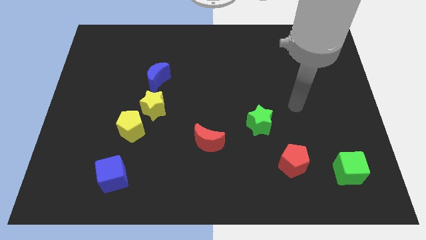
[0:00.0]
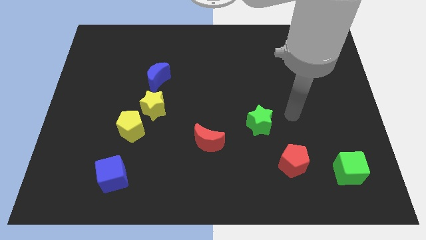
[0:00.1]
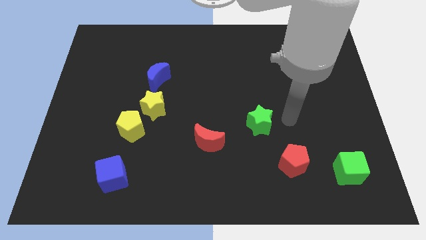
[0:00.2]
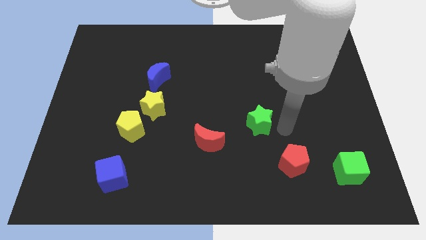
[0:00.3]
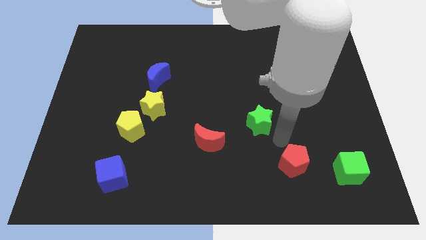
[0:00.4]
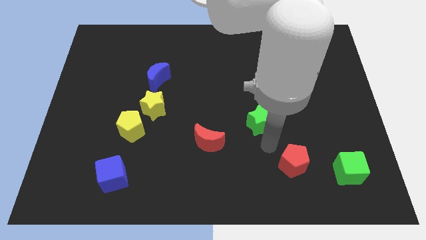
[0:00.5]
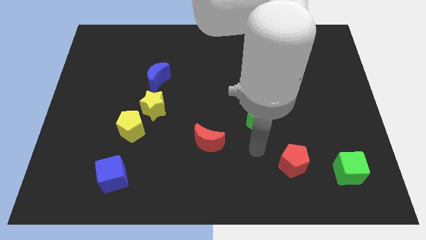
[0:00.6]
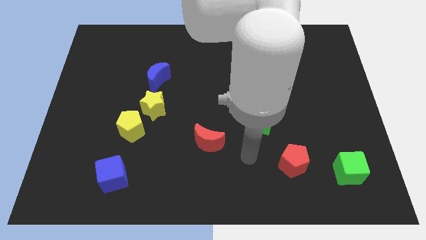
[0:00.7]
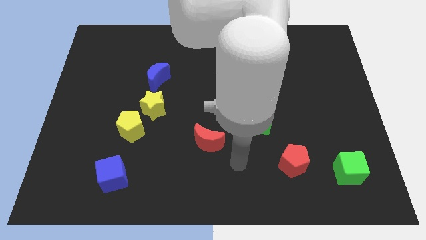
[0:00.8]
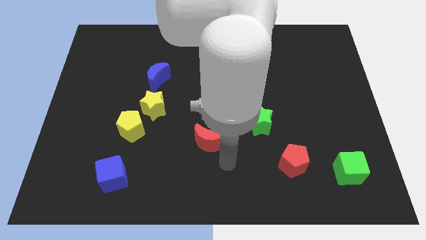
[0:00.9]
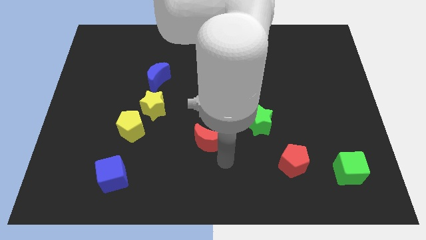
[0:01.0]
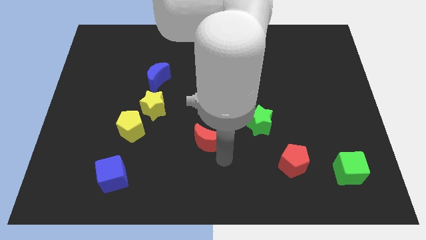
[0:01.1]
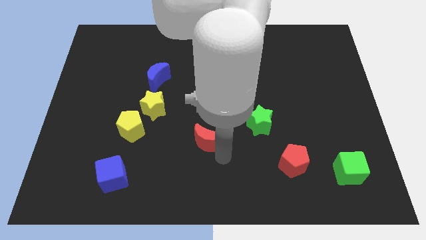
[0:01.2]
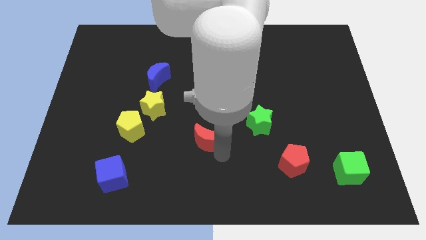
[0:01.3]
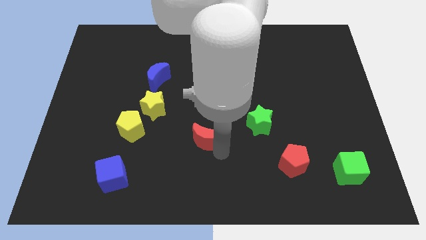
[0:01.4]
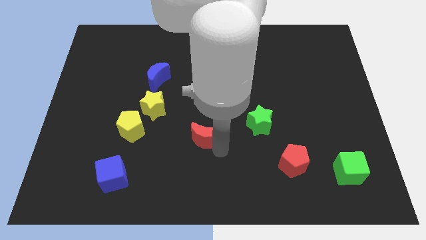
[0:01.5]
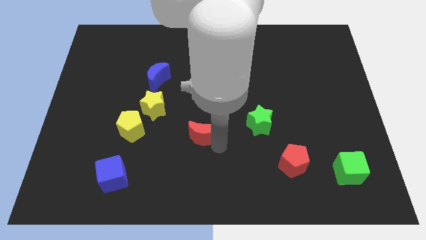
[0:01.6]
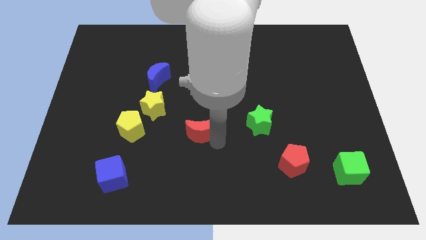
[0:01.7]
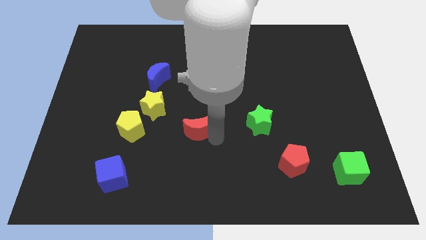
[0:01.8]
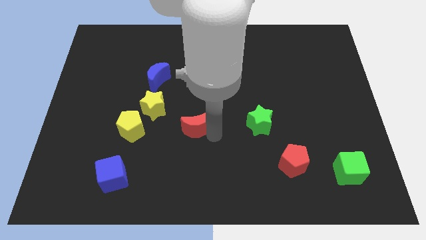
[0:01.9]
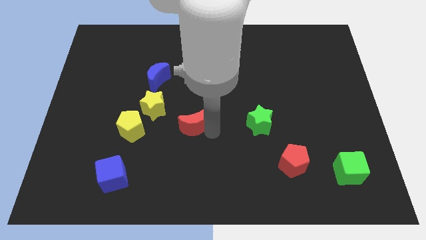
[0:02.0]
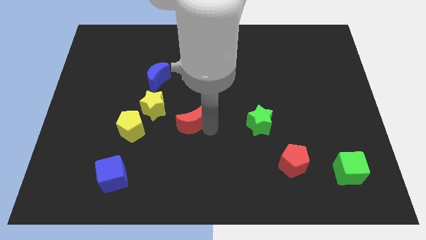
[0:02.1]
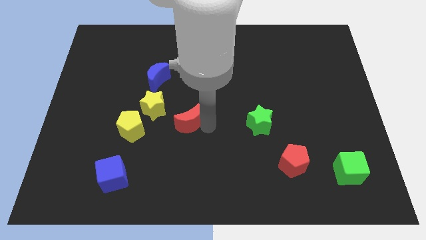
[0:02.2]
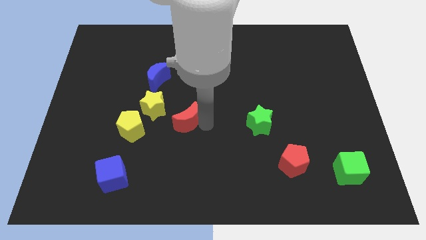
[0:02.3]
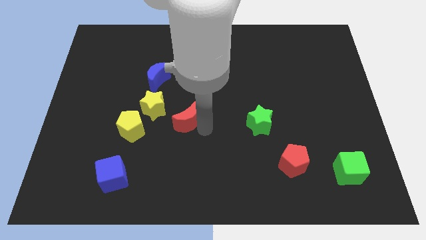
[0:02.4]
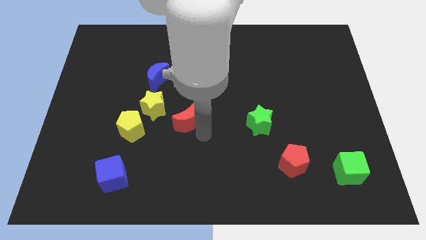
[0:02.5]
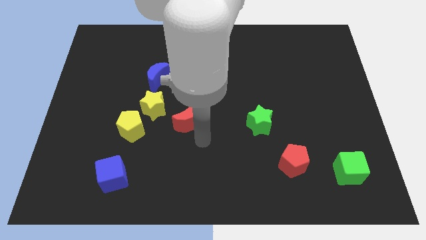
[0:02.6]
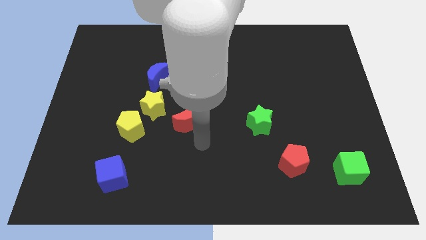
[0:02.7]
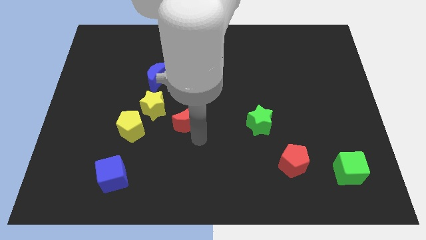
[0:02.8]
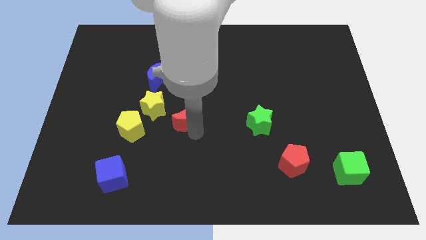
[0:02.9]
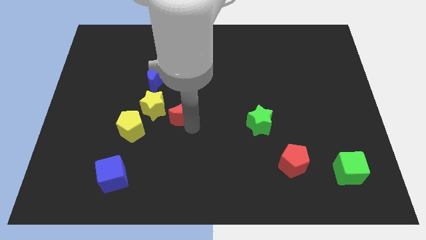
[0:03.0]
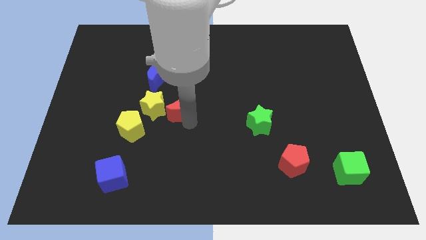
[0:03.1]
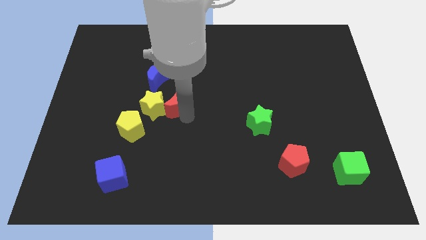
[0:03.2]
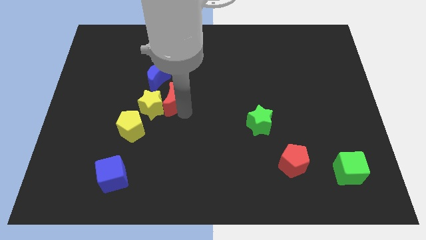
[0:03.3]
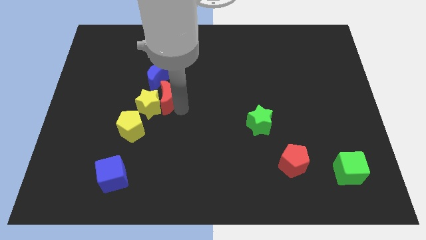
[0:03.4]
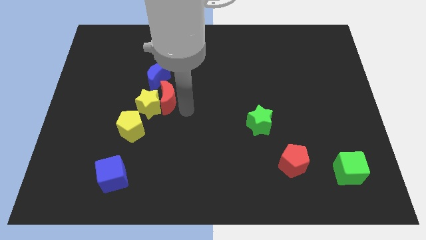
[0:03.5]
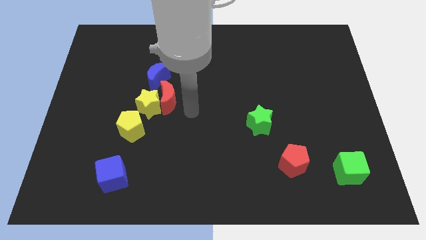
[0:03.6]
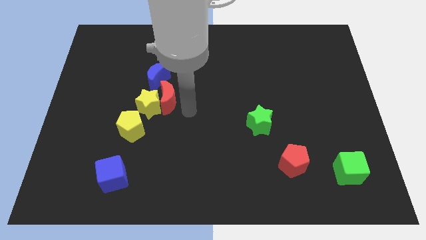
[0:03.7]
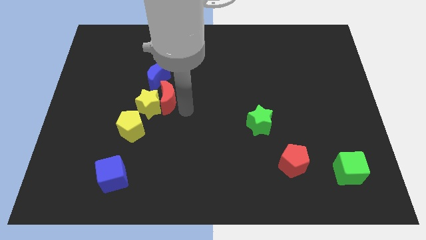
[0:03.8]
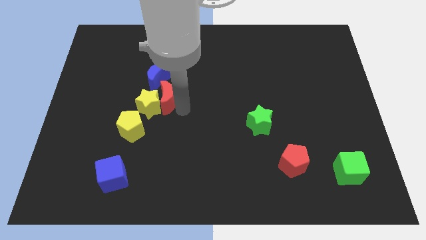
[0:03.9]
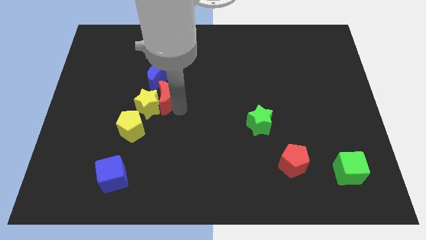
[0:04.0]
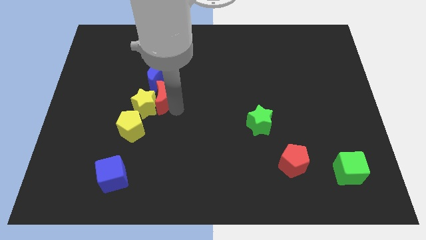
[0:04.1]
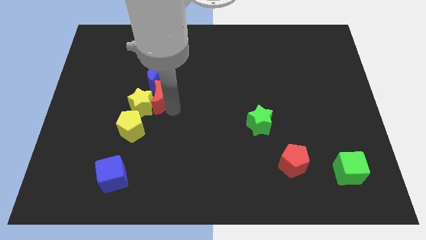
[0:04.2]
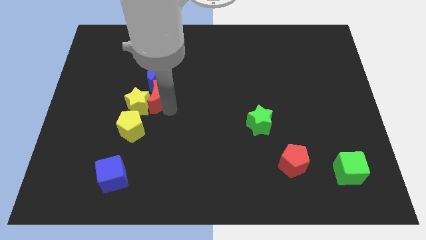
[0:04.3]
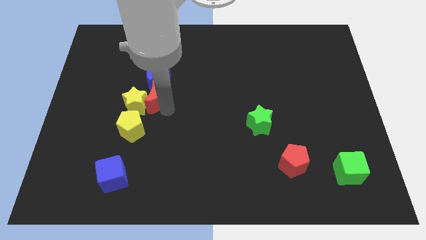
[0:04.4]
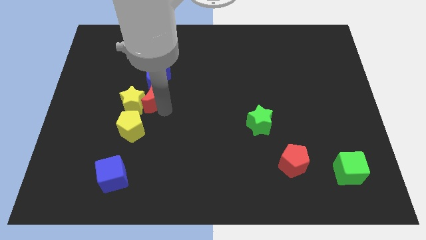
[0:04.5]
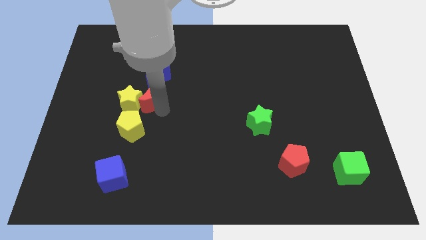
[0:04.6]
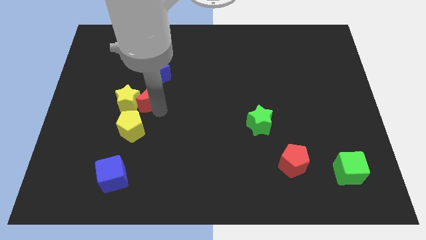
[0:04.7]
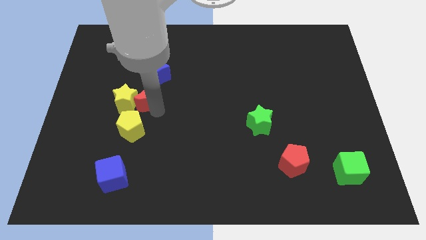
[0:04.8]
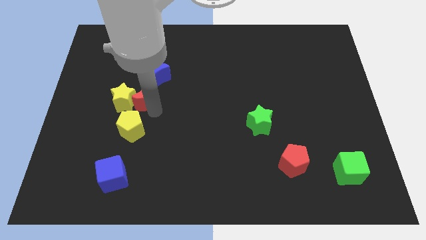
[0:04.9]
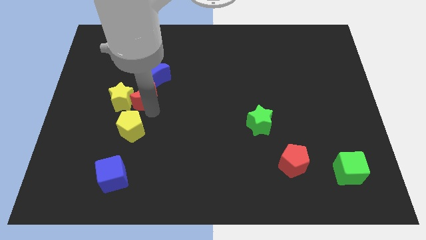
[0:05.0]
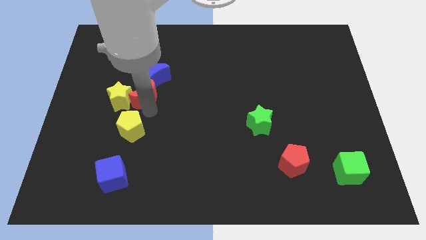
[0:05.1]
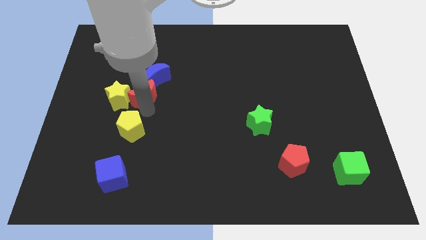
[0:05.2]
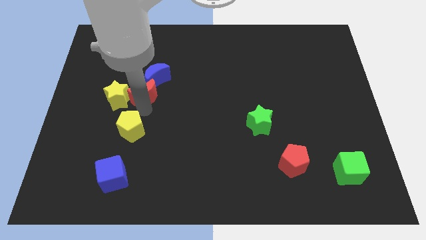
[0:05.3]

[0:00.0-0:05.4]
slide the red moon upwards and left diagonally

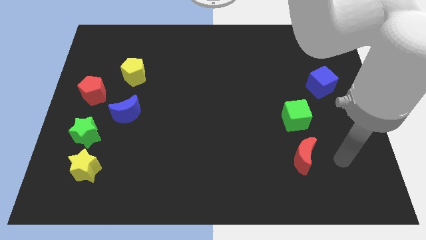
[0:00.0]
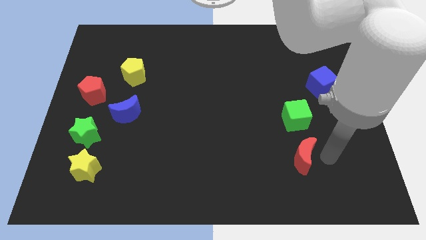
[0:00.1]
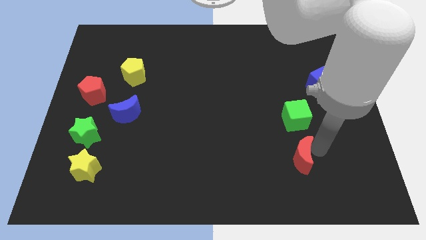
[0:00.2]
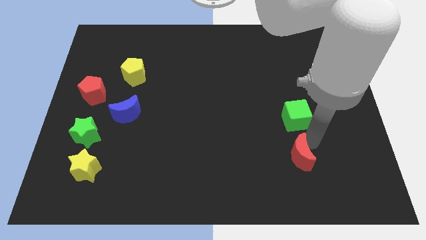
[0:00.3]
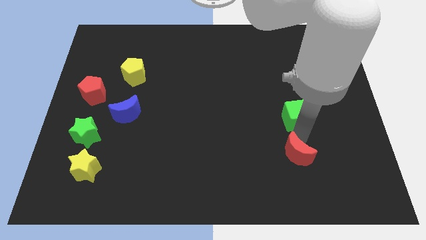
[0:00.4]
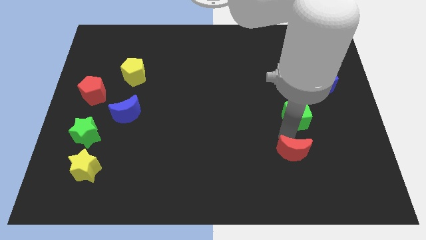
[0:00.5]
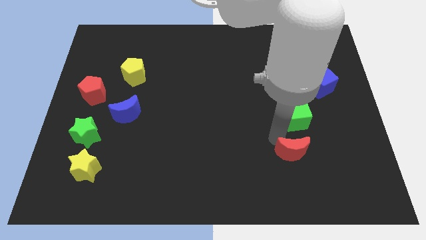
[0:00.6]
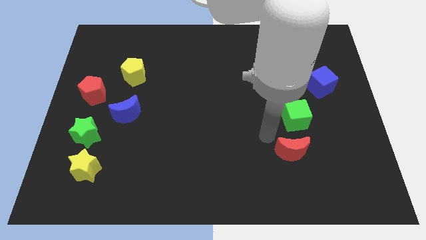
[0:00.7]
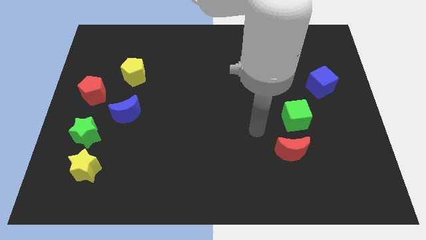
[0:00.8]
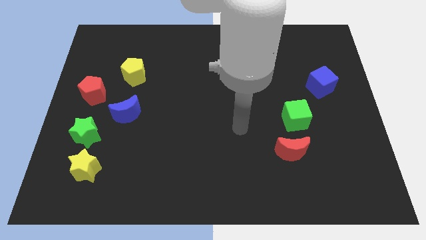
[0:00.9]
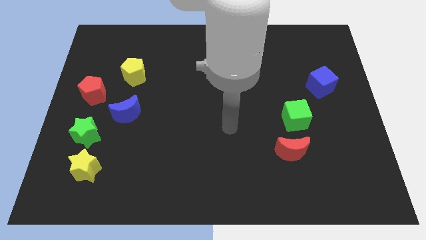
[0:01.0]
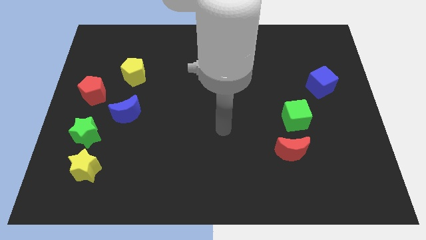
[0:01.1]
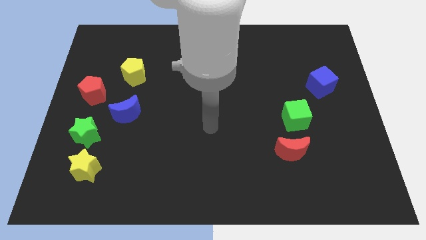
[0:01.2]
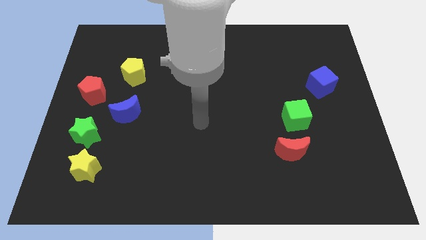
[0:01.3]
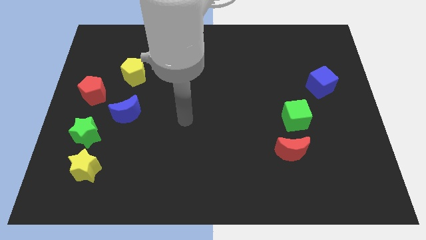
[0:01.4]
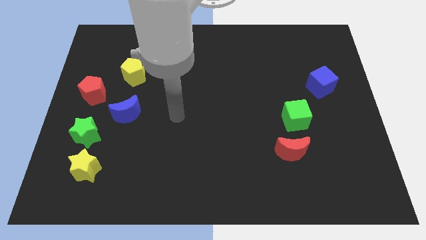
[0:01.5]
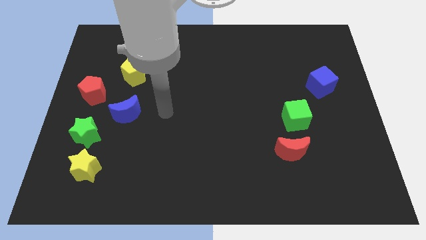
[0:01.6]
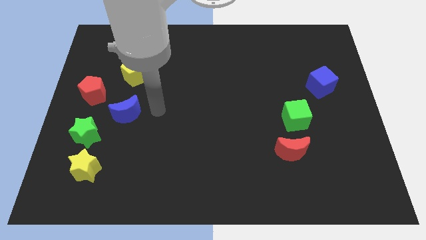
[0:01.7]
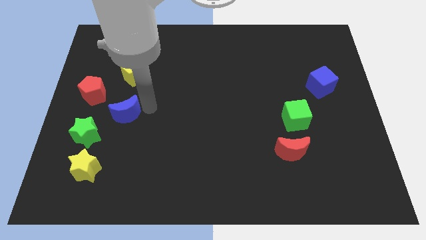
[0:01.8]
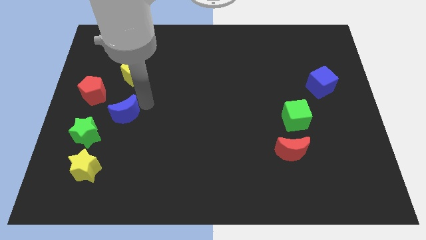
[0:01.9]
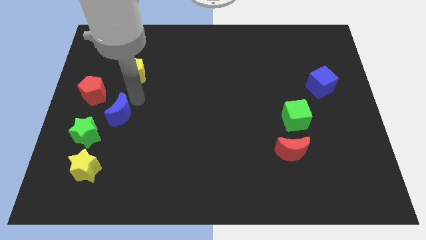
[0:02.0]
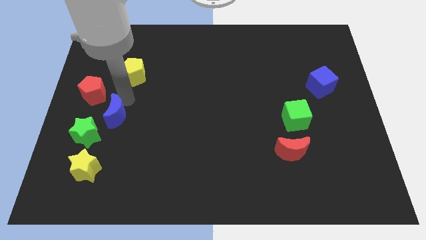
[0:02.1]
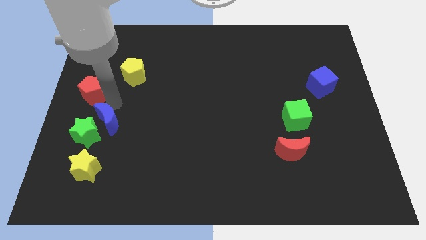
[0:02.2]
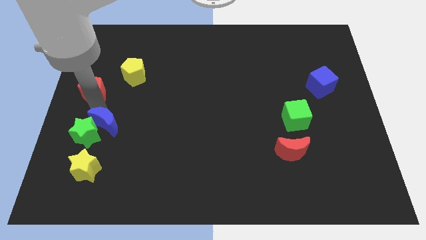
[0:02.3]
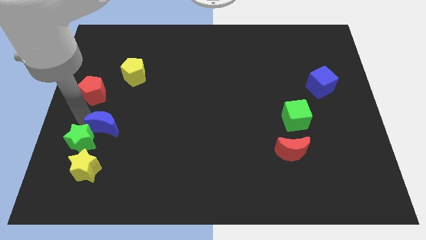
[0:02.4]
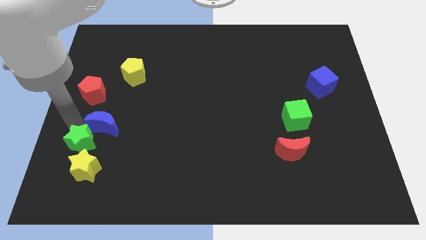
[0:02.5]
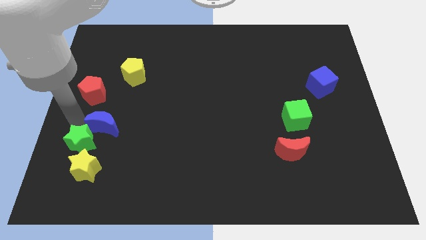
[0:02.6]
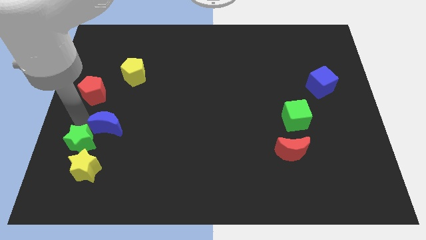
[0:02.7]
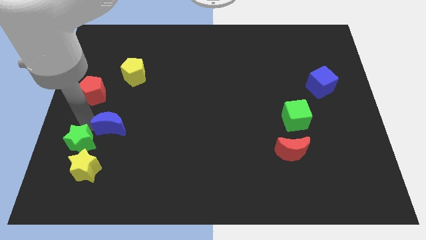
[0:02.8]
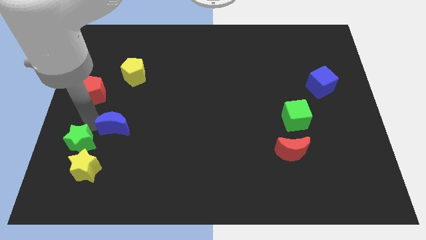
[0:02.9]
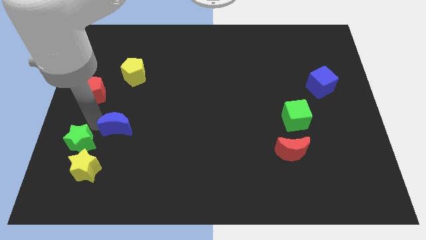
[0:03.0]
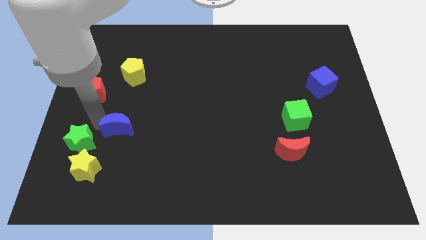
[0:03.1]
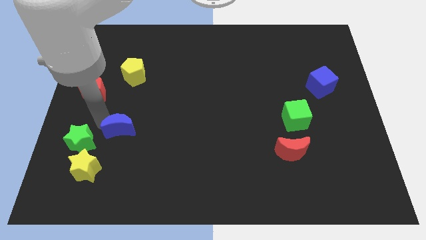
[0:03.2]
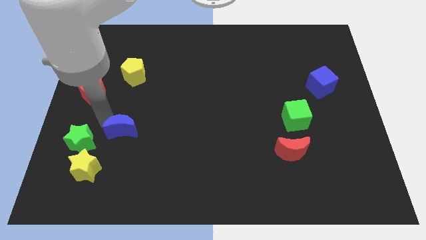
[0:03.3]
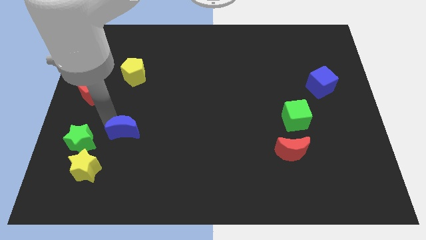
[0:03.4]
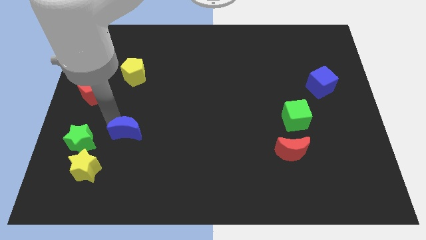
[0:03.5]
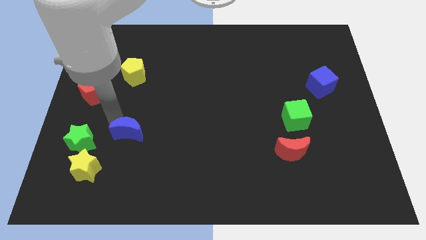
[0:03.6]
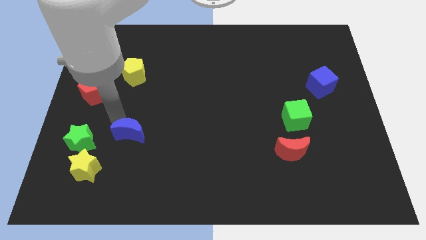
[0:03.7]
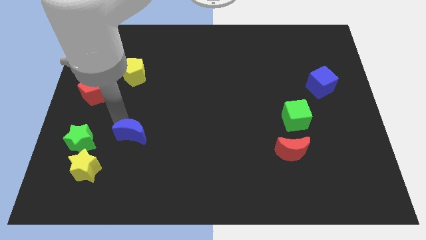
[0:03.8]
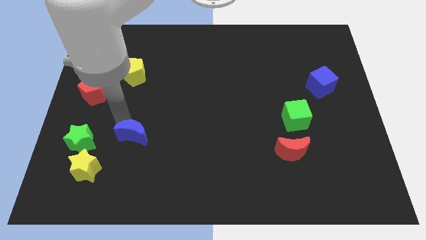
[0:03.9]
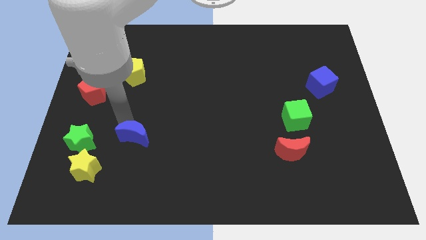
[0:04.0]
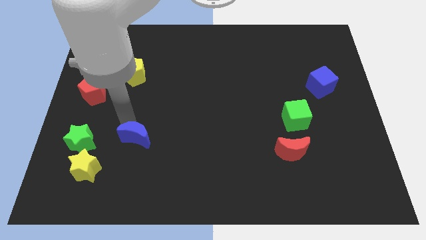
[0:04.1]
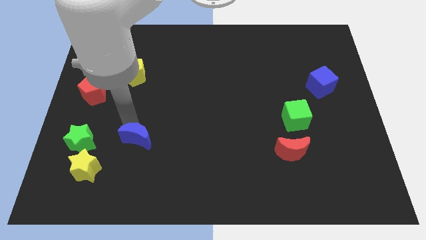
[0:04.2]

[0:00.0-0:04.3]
move the blue moon a bit diagonally downwards and to the right
